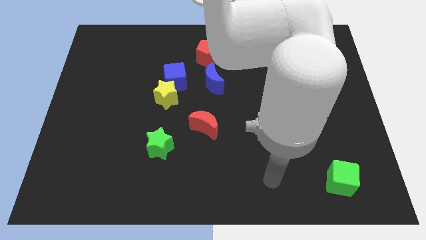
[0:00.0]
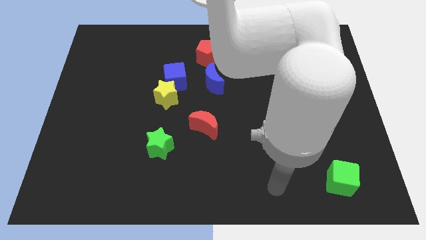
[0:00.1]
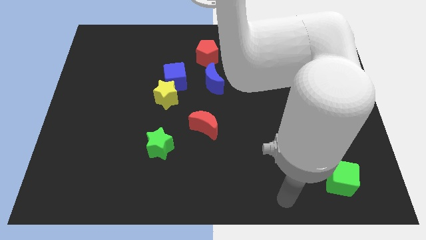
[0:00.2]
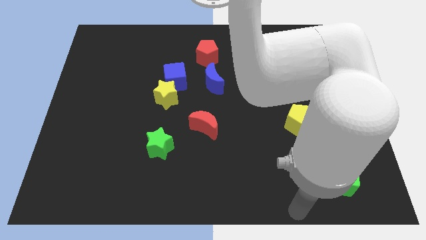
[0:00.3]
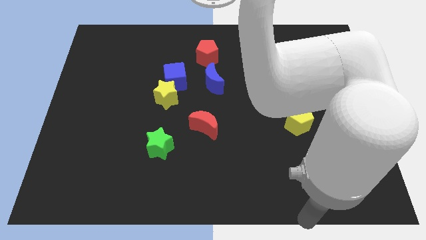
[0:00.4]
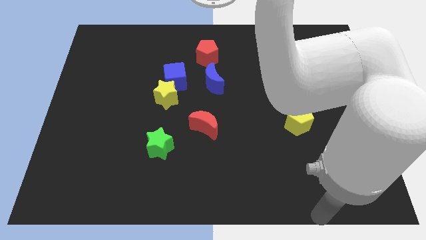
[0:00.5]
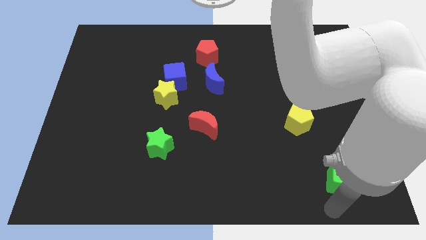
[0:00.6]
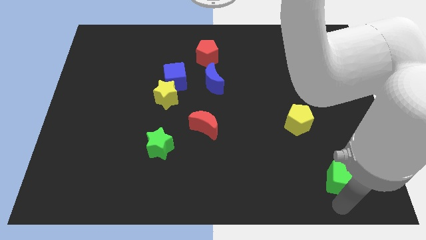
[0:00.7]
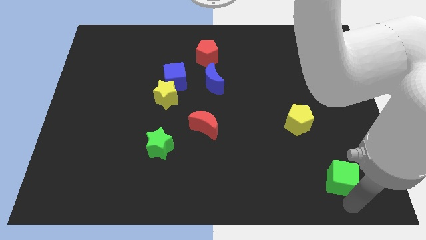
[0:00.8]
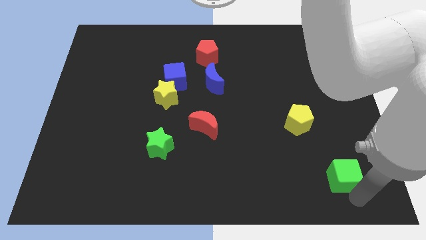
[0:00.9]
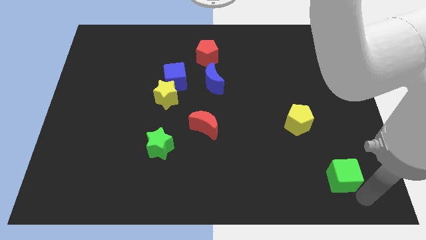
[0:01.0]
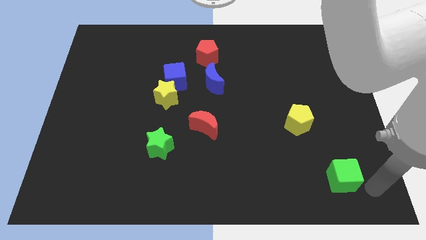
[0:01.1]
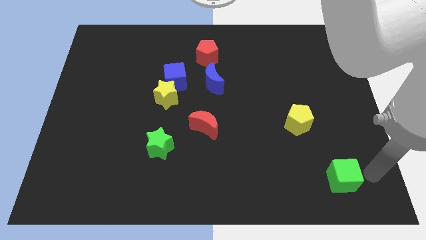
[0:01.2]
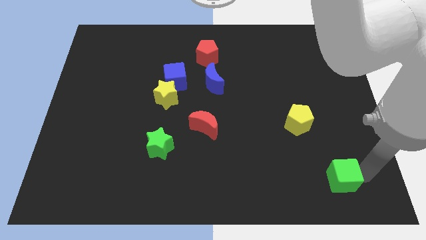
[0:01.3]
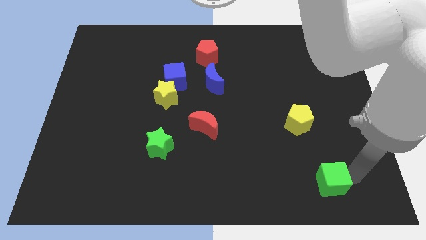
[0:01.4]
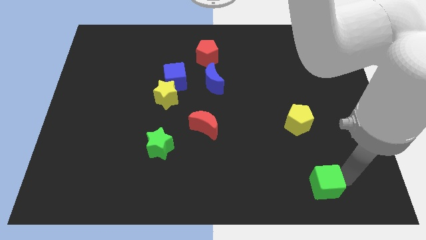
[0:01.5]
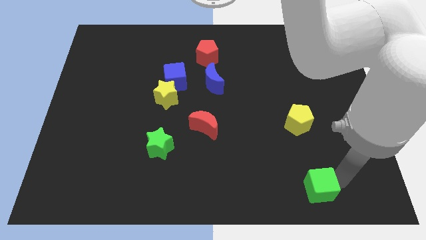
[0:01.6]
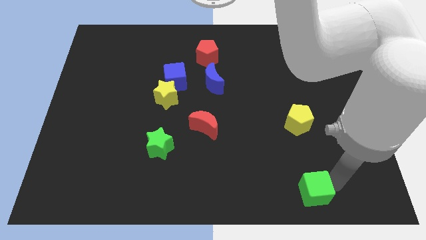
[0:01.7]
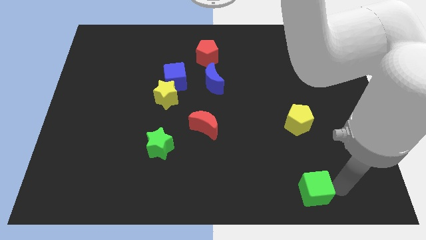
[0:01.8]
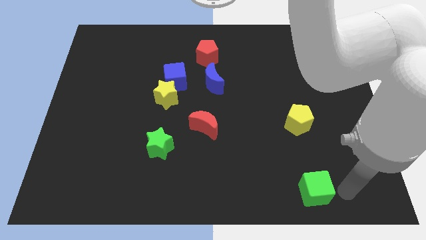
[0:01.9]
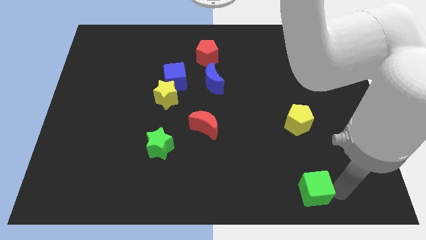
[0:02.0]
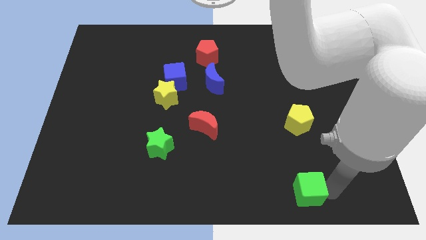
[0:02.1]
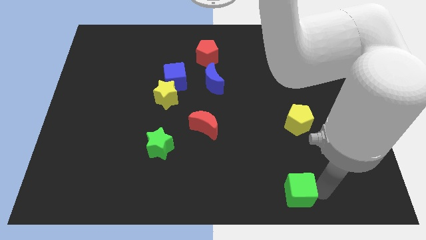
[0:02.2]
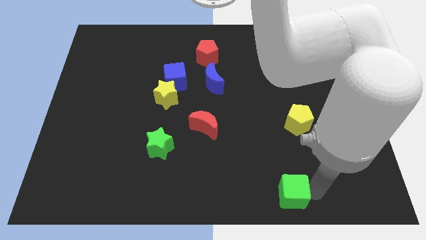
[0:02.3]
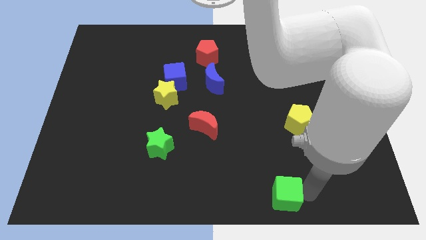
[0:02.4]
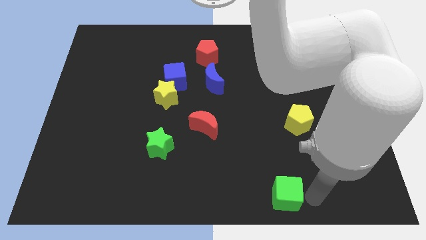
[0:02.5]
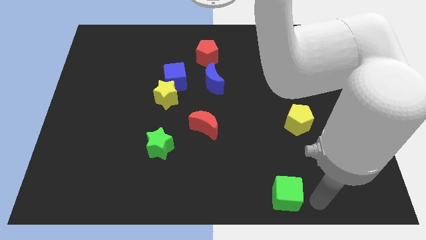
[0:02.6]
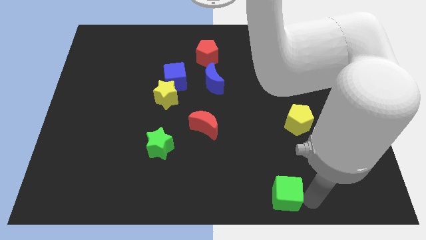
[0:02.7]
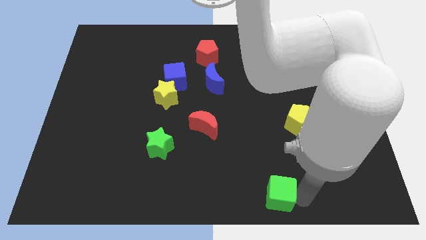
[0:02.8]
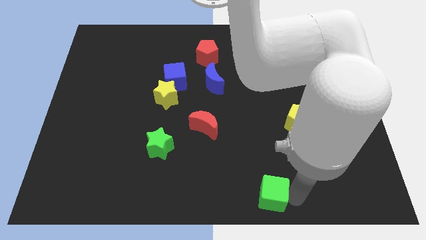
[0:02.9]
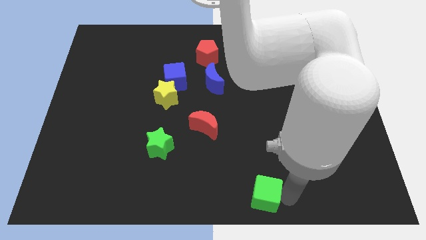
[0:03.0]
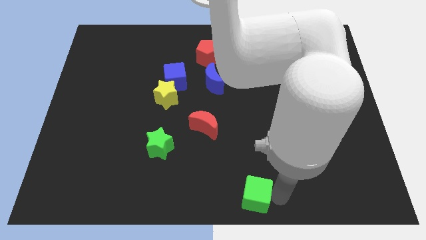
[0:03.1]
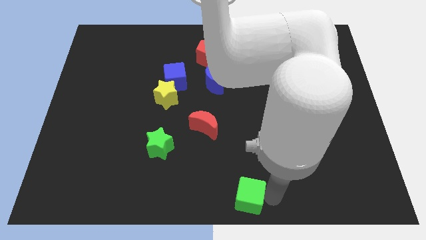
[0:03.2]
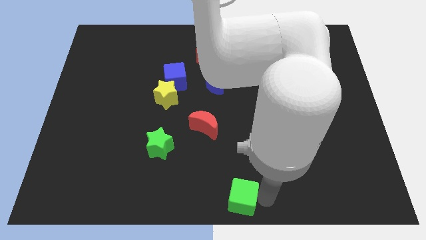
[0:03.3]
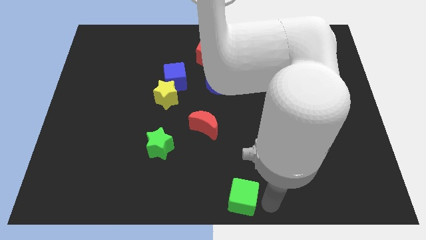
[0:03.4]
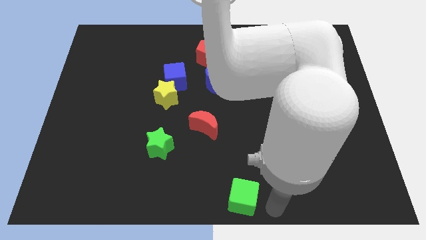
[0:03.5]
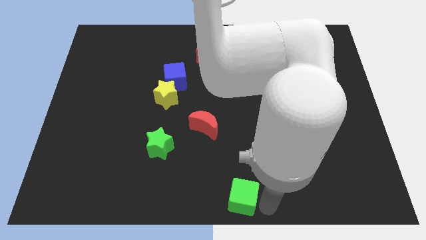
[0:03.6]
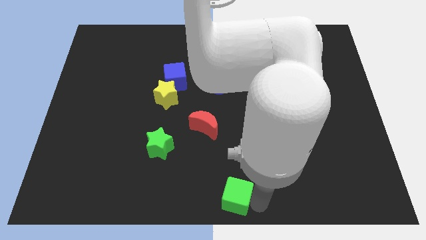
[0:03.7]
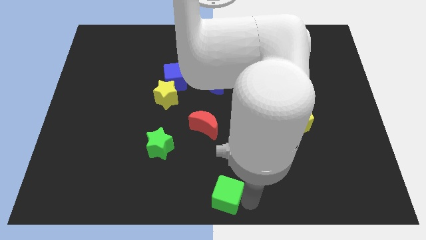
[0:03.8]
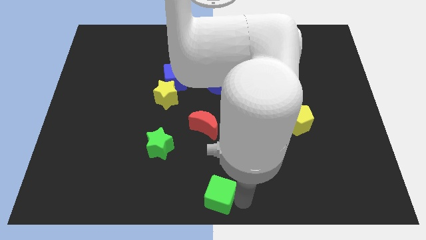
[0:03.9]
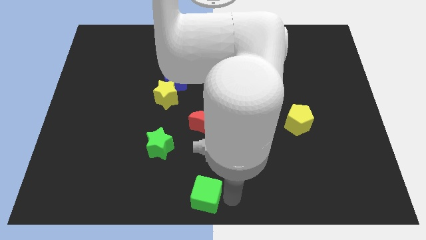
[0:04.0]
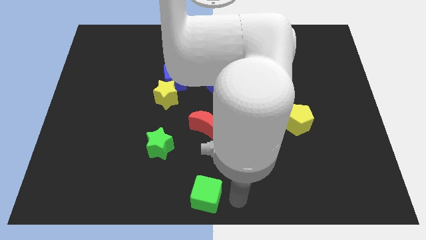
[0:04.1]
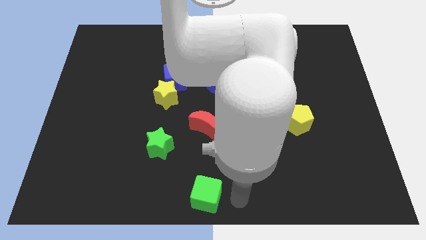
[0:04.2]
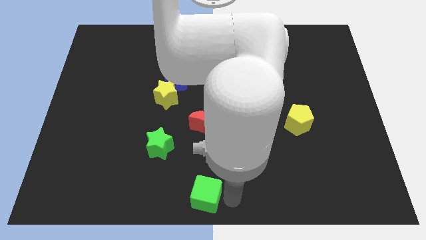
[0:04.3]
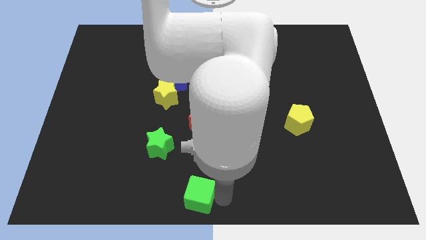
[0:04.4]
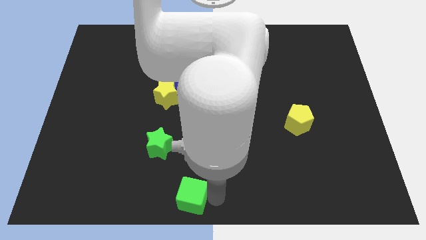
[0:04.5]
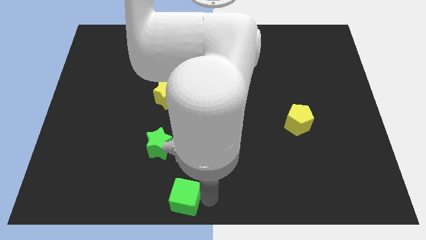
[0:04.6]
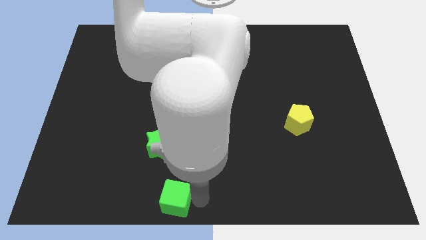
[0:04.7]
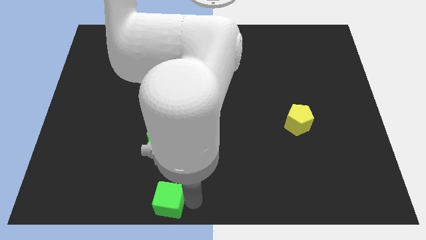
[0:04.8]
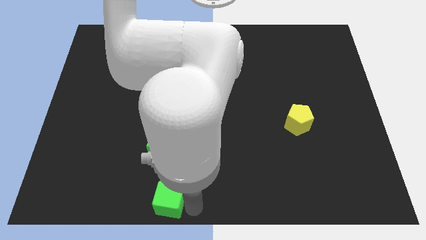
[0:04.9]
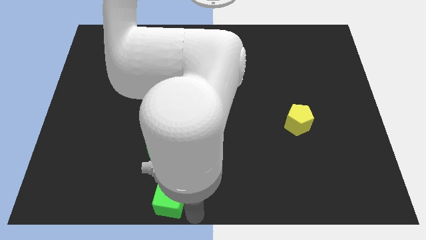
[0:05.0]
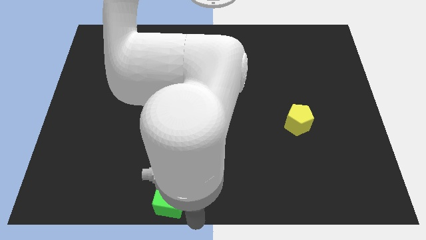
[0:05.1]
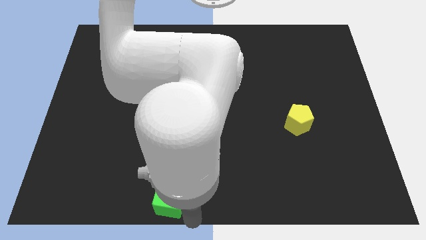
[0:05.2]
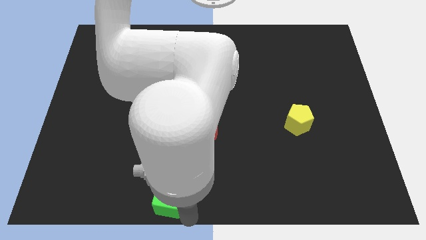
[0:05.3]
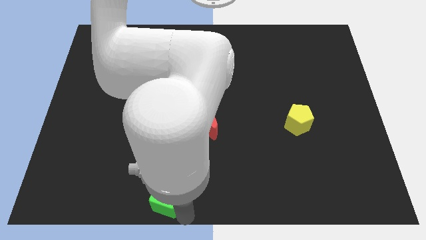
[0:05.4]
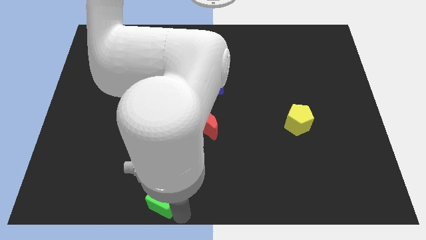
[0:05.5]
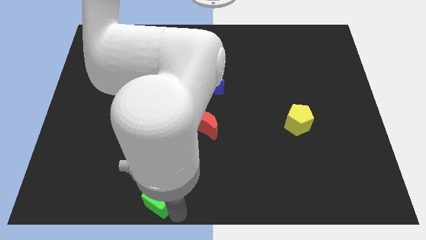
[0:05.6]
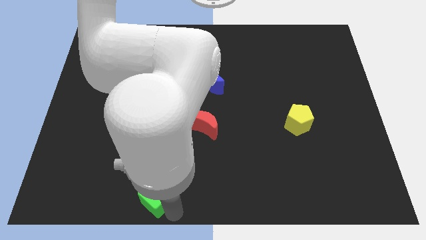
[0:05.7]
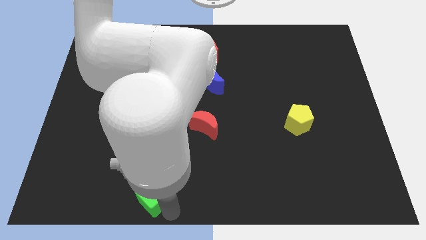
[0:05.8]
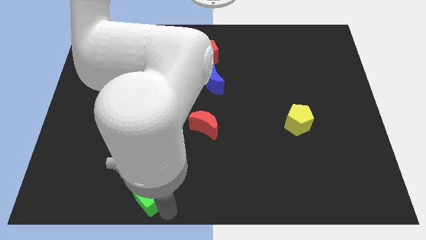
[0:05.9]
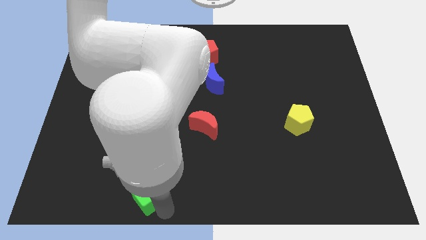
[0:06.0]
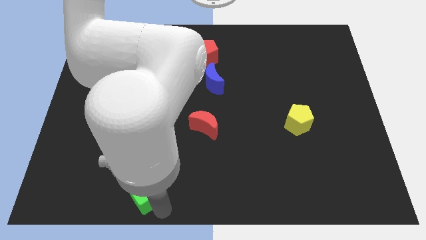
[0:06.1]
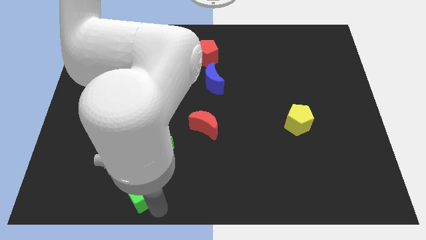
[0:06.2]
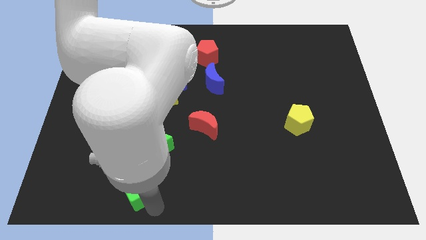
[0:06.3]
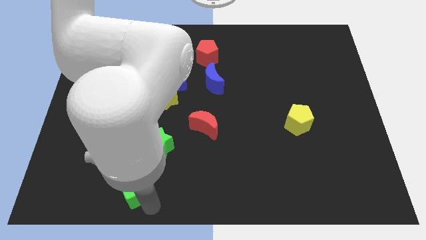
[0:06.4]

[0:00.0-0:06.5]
put the green cube diagonally down and to the left of the green star

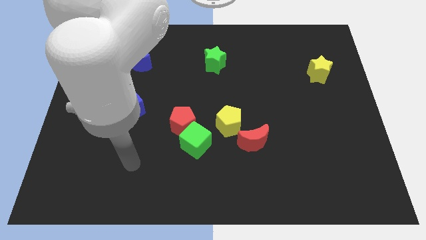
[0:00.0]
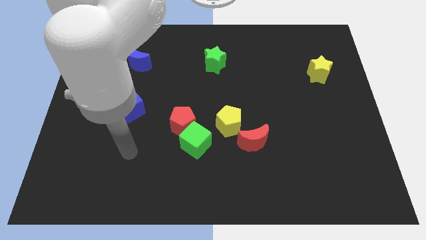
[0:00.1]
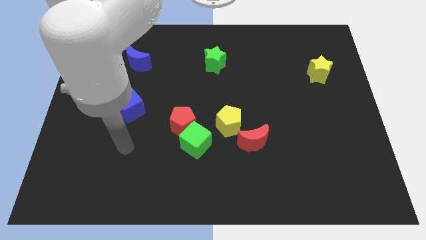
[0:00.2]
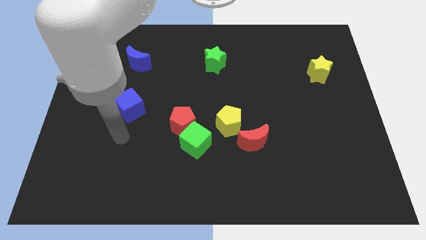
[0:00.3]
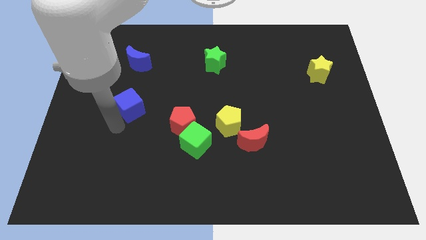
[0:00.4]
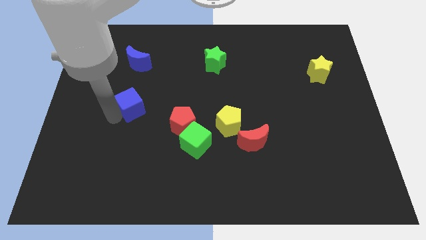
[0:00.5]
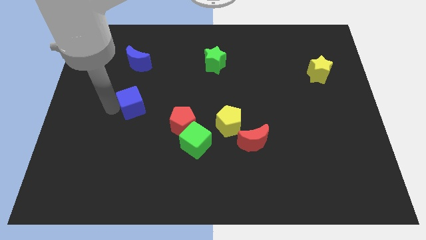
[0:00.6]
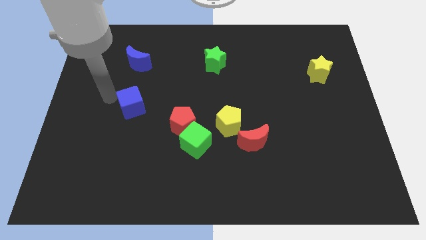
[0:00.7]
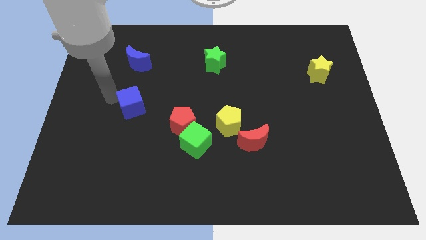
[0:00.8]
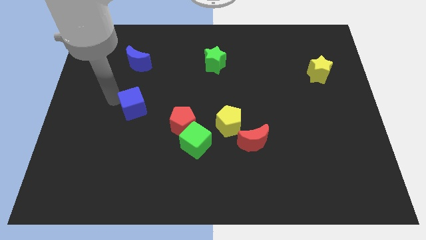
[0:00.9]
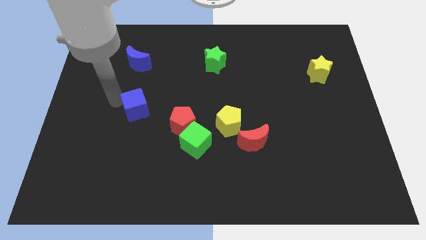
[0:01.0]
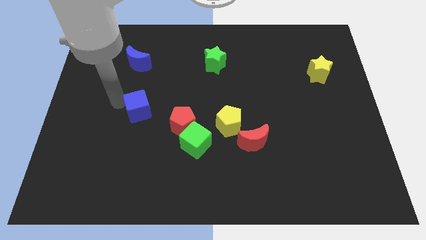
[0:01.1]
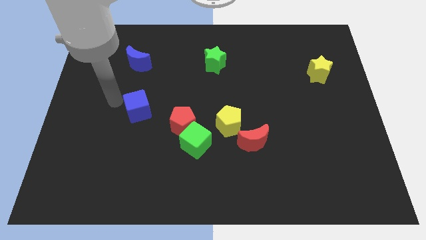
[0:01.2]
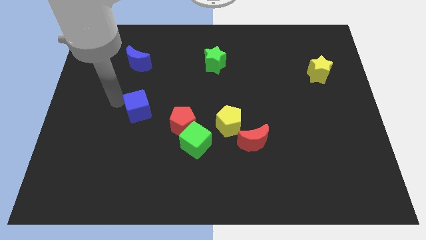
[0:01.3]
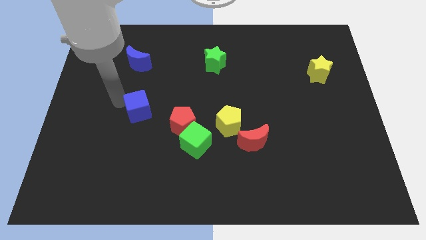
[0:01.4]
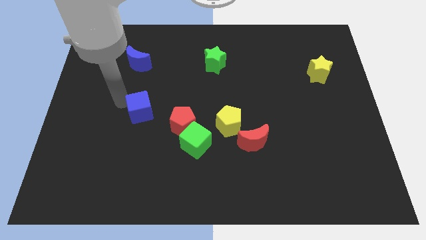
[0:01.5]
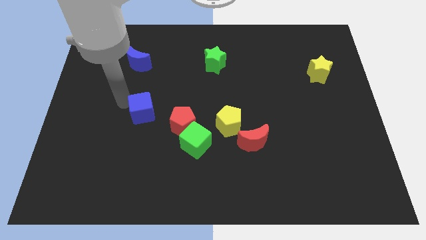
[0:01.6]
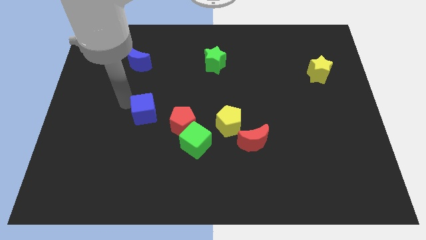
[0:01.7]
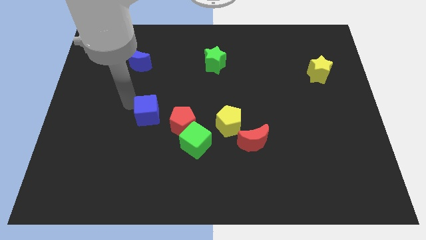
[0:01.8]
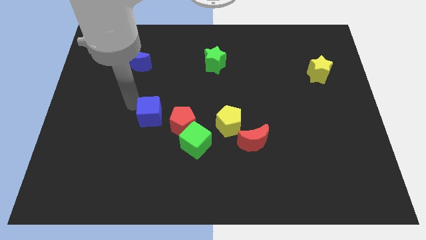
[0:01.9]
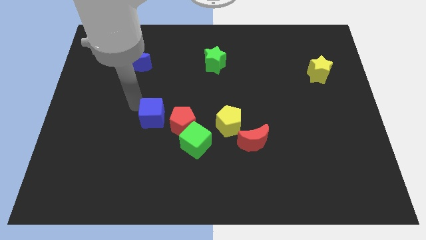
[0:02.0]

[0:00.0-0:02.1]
put the blue cube diagonally up and to the left of the green cube
